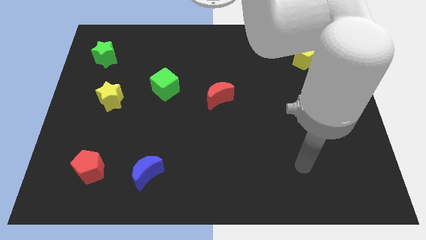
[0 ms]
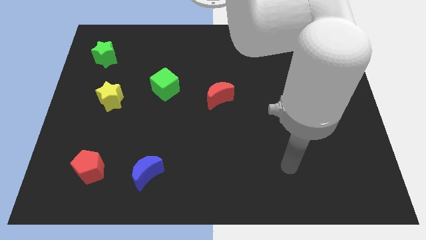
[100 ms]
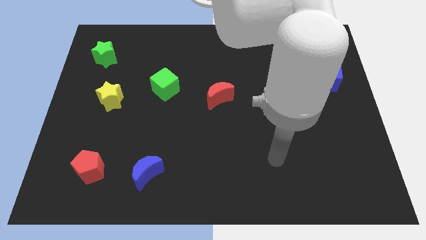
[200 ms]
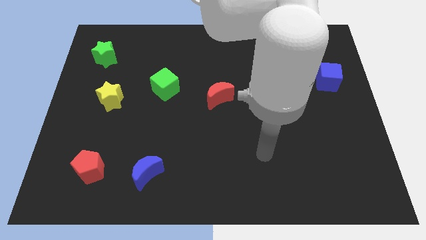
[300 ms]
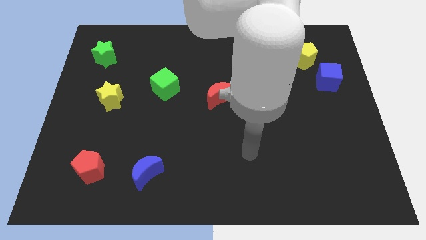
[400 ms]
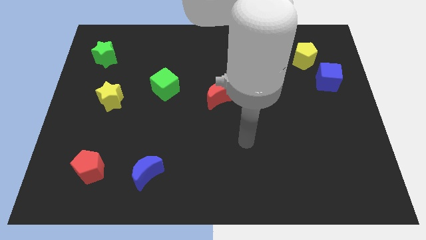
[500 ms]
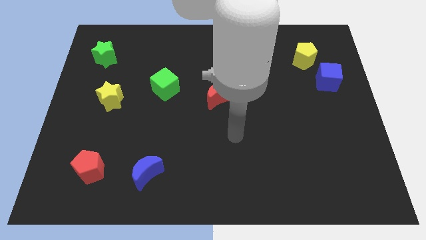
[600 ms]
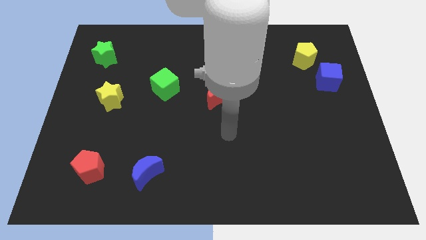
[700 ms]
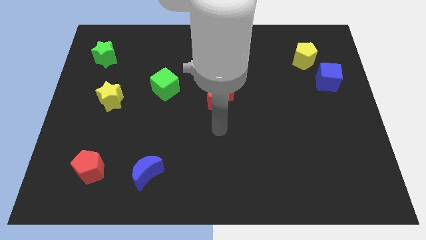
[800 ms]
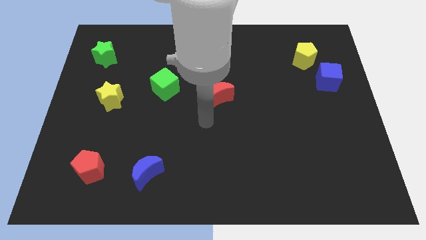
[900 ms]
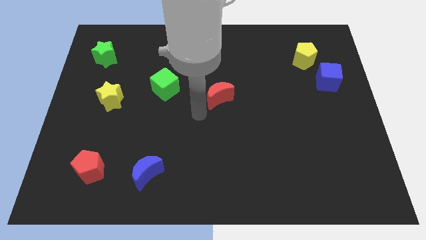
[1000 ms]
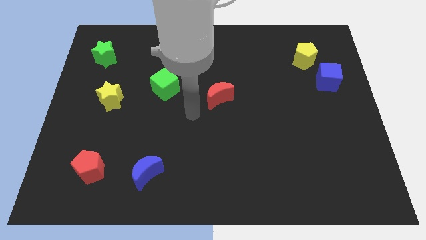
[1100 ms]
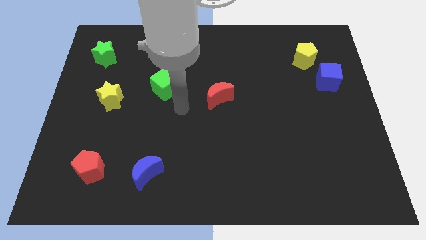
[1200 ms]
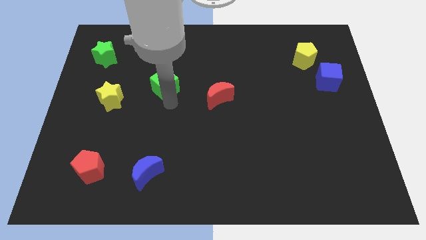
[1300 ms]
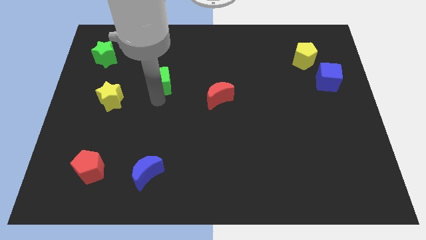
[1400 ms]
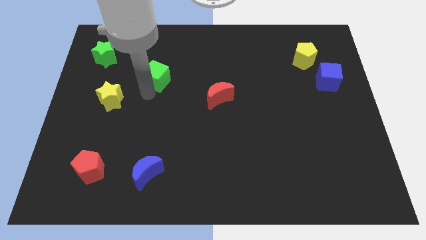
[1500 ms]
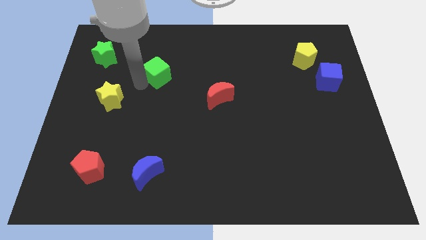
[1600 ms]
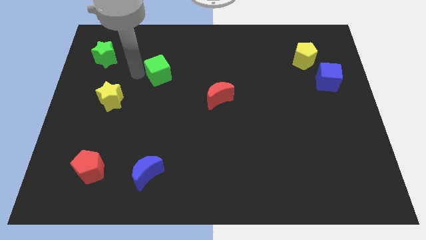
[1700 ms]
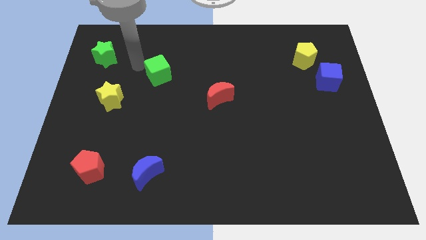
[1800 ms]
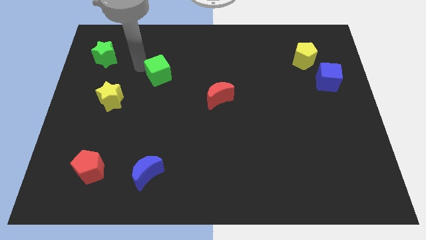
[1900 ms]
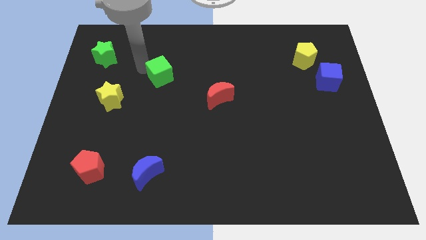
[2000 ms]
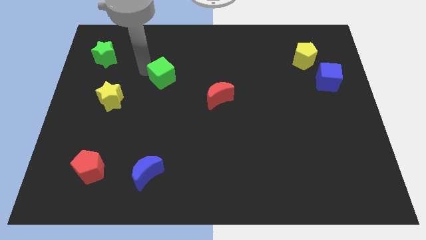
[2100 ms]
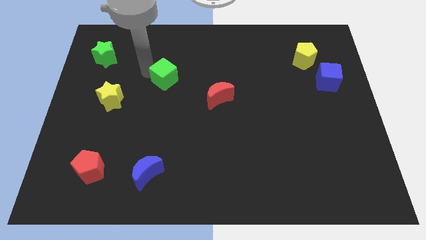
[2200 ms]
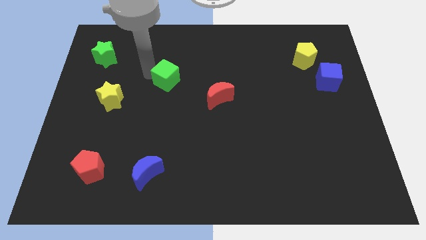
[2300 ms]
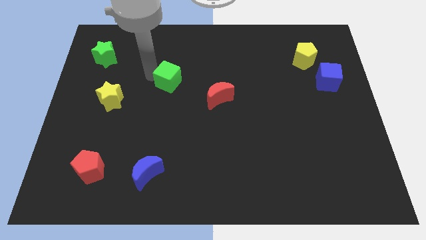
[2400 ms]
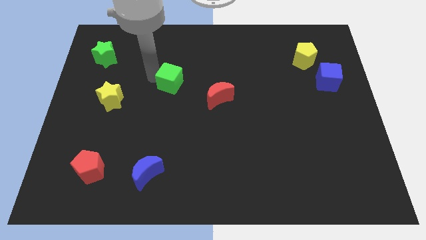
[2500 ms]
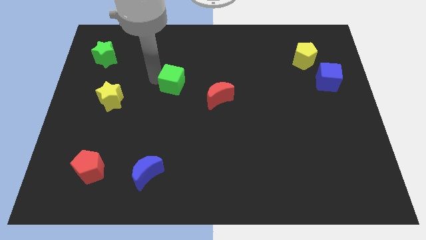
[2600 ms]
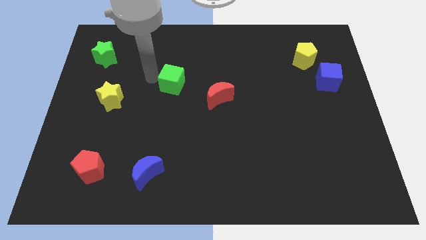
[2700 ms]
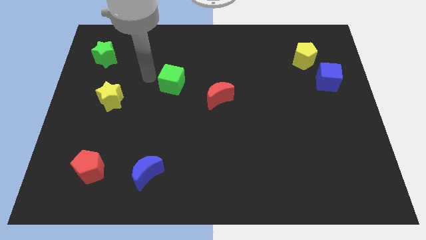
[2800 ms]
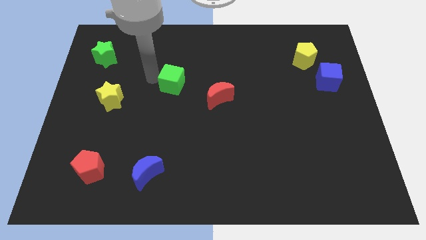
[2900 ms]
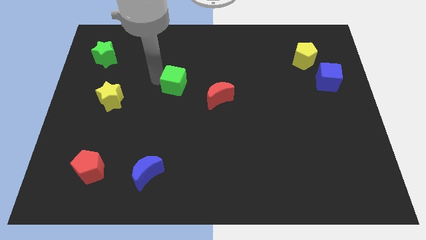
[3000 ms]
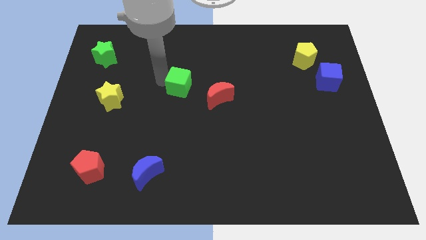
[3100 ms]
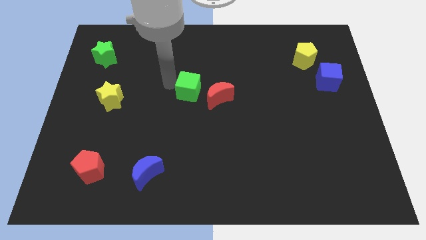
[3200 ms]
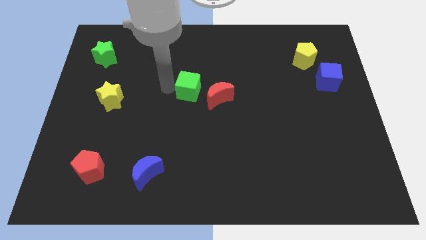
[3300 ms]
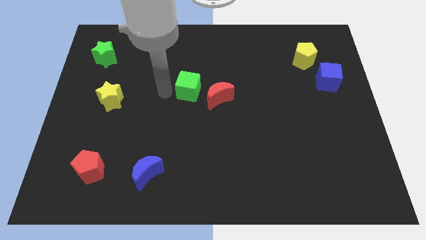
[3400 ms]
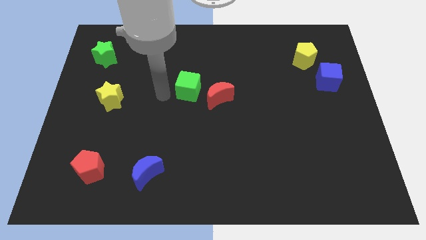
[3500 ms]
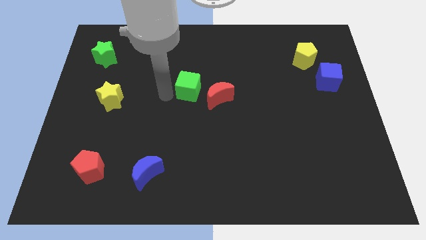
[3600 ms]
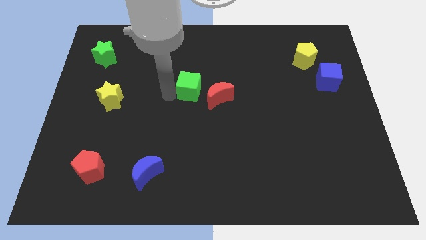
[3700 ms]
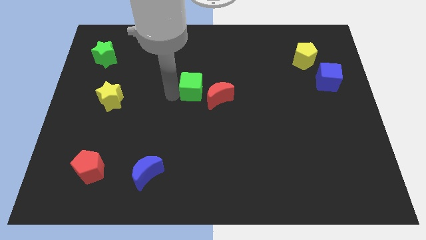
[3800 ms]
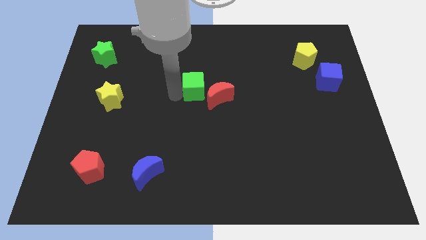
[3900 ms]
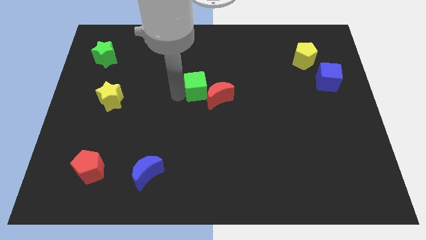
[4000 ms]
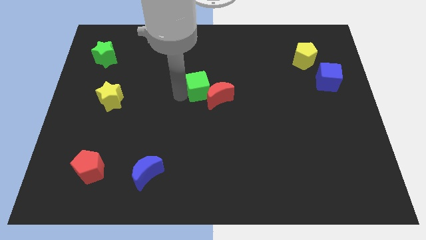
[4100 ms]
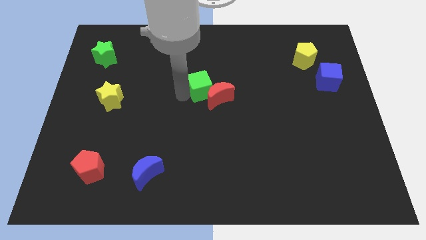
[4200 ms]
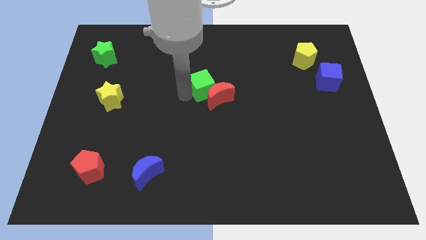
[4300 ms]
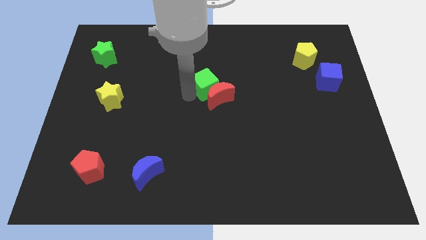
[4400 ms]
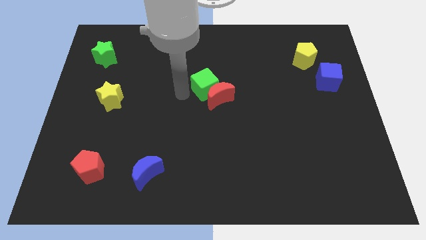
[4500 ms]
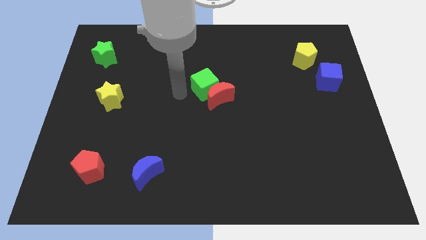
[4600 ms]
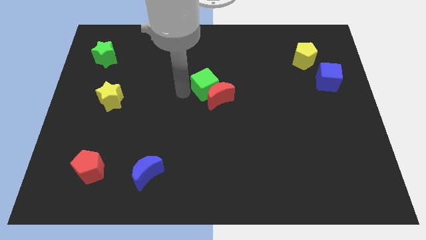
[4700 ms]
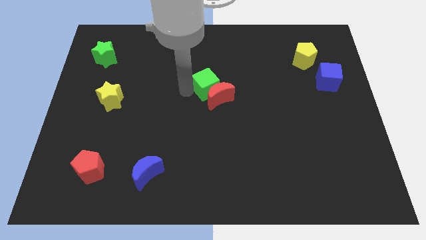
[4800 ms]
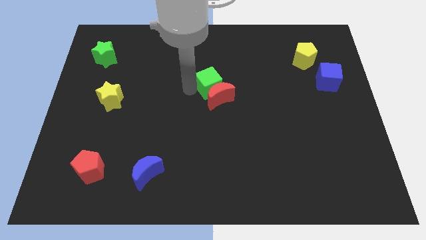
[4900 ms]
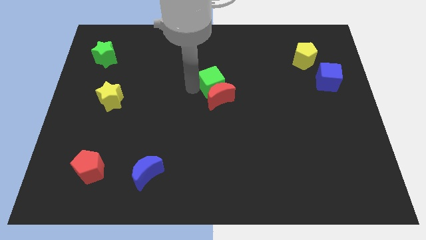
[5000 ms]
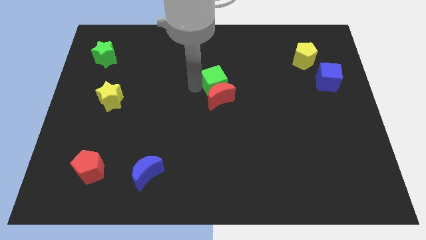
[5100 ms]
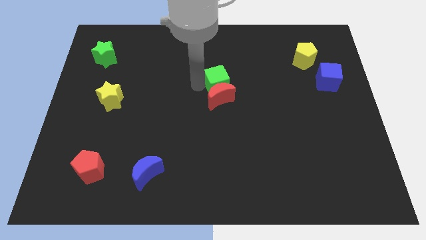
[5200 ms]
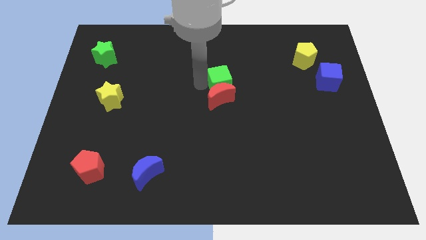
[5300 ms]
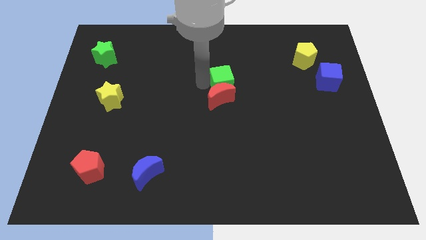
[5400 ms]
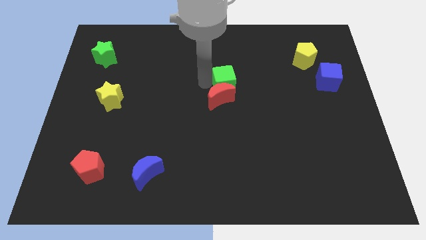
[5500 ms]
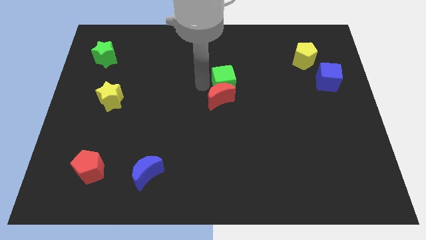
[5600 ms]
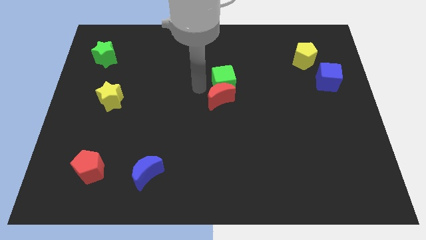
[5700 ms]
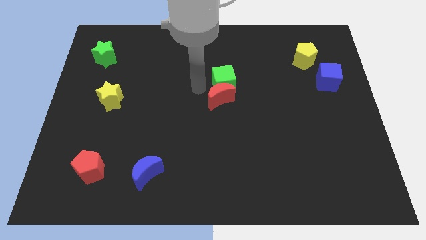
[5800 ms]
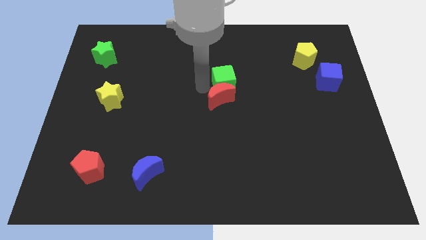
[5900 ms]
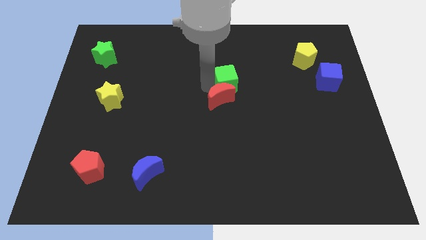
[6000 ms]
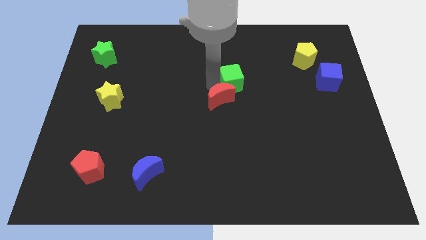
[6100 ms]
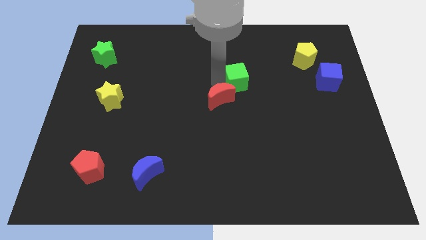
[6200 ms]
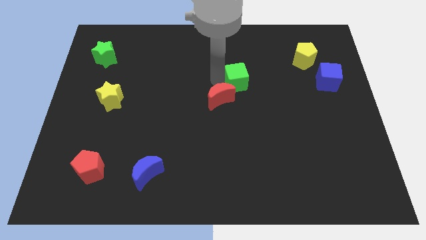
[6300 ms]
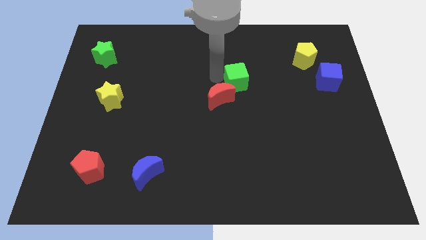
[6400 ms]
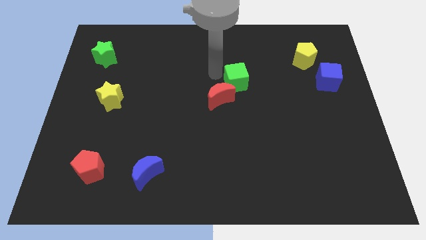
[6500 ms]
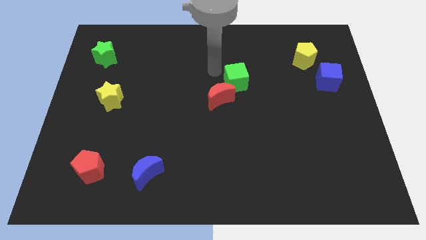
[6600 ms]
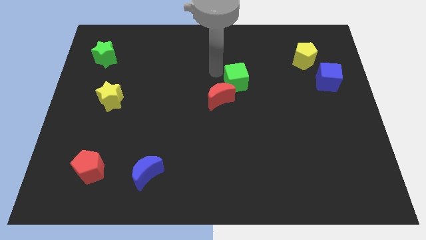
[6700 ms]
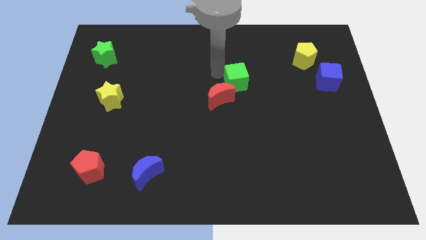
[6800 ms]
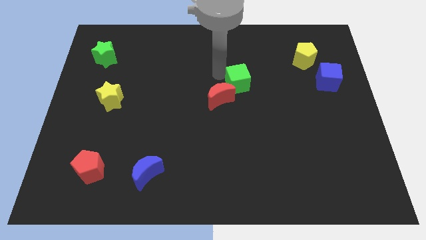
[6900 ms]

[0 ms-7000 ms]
slide the green cube to the right side of the red moon

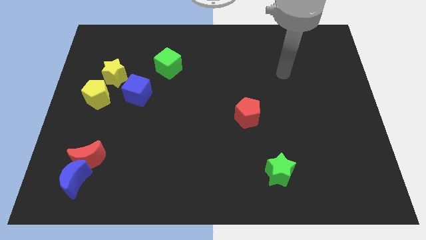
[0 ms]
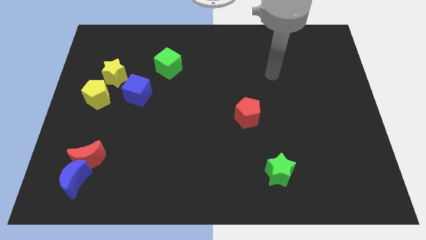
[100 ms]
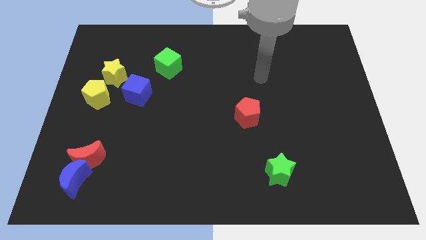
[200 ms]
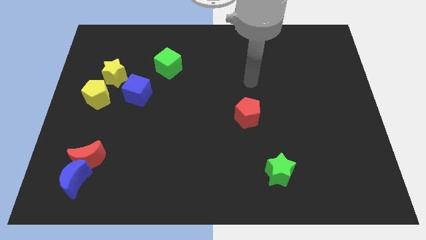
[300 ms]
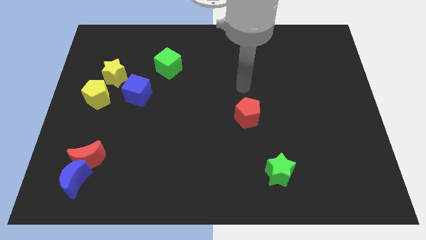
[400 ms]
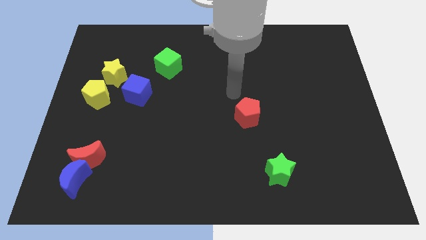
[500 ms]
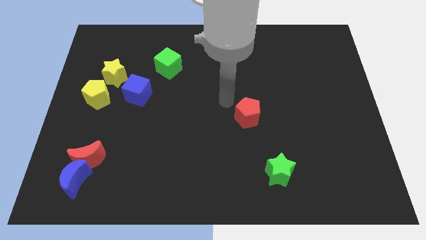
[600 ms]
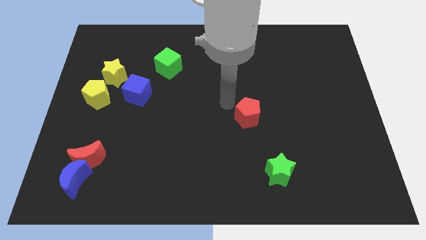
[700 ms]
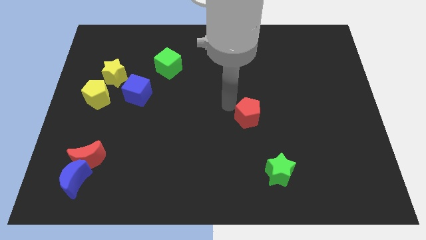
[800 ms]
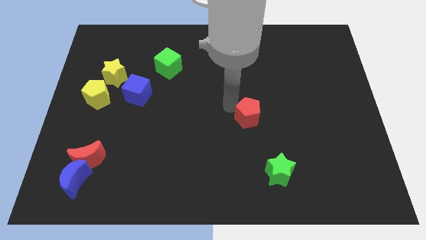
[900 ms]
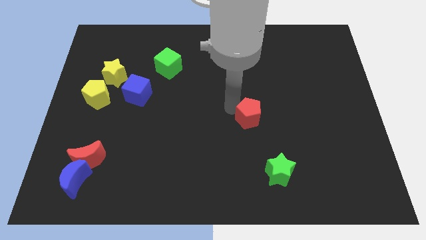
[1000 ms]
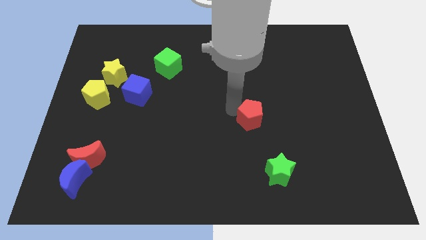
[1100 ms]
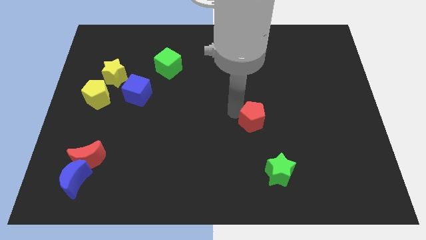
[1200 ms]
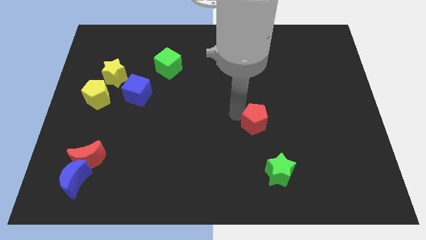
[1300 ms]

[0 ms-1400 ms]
put the red pentagon above the green star
